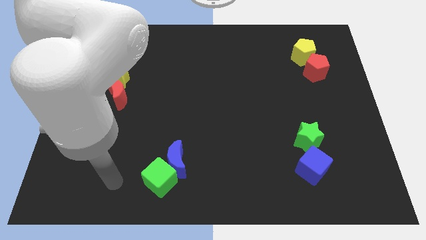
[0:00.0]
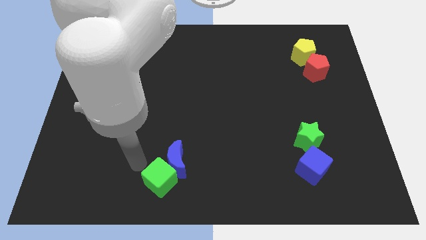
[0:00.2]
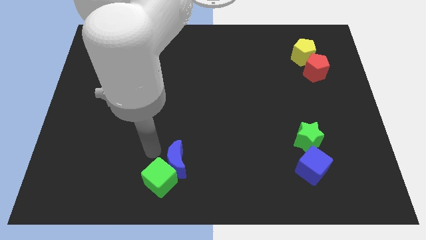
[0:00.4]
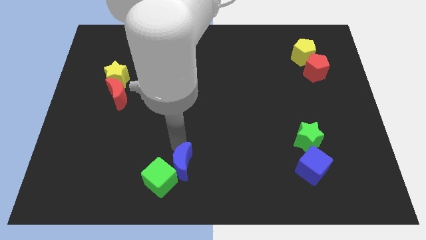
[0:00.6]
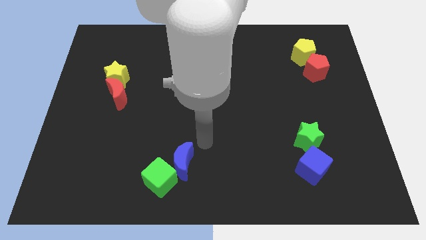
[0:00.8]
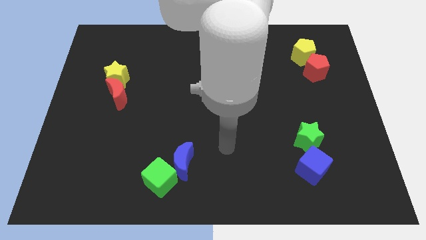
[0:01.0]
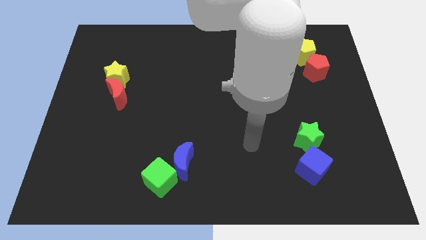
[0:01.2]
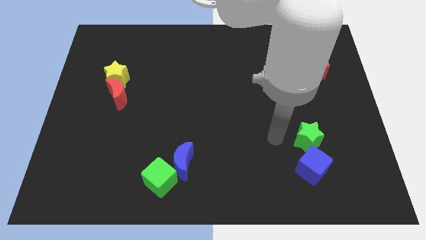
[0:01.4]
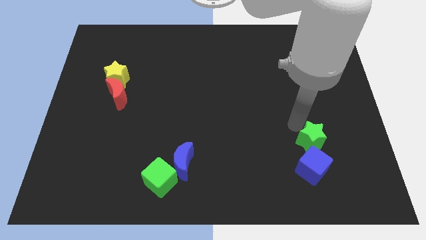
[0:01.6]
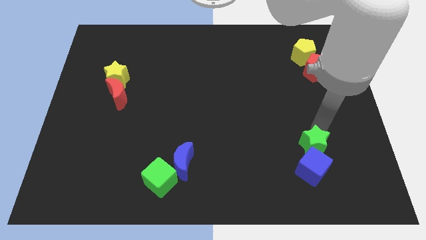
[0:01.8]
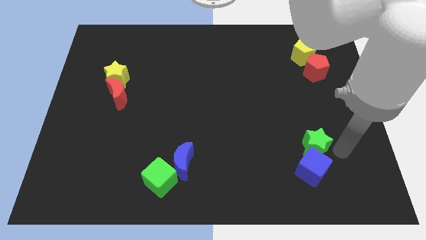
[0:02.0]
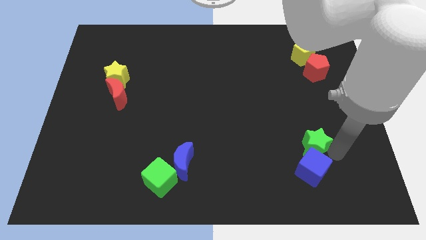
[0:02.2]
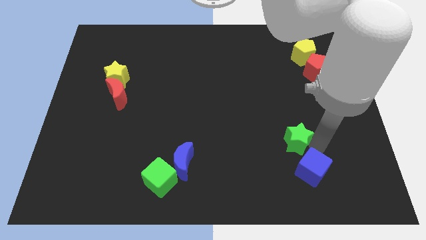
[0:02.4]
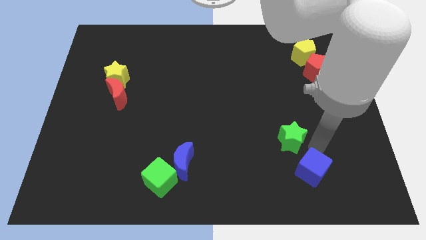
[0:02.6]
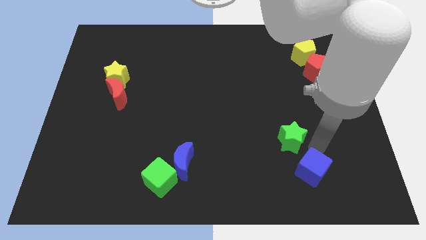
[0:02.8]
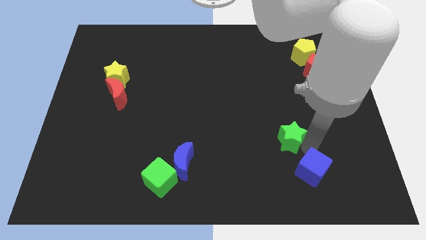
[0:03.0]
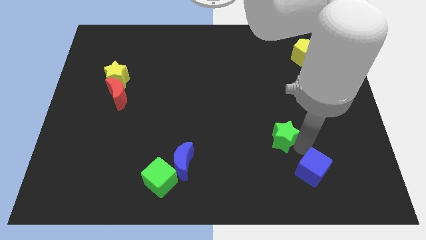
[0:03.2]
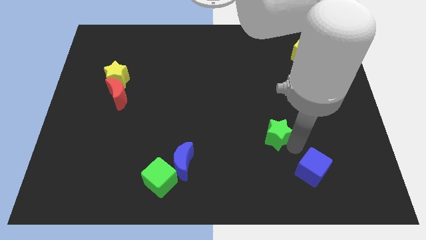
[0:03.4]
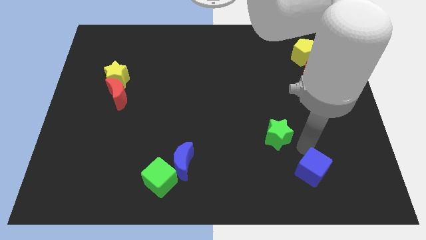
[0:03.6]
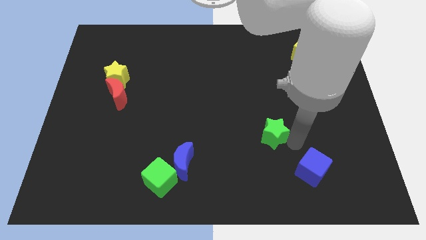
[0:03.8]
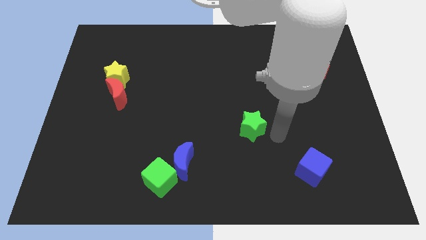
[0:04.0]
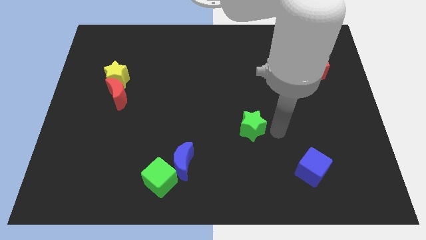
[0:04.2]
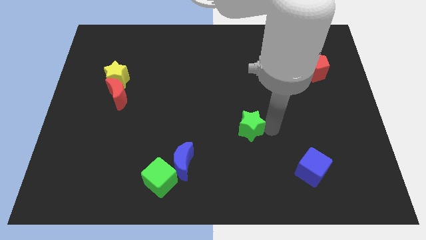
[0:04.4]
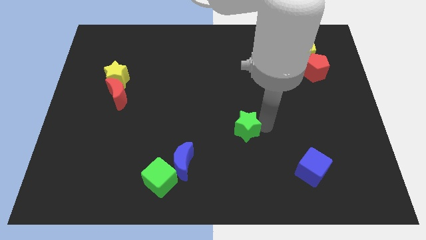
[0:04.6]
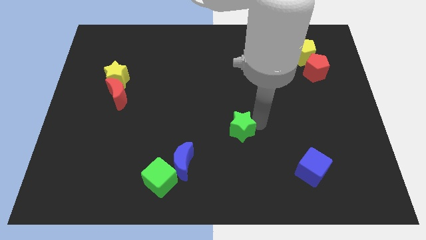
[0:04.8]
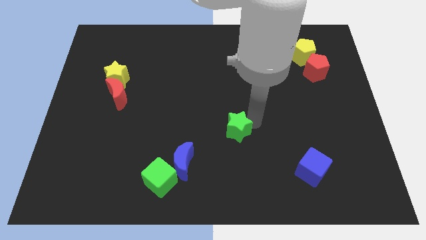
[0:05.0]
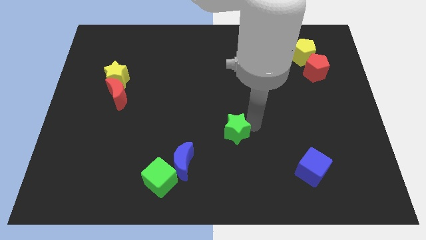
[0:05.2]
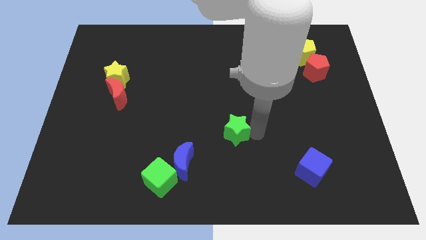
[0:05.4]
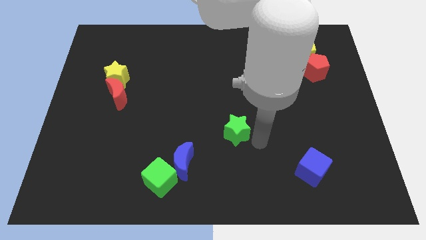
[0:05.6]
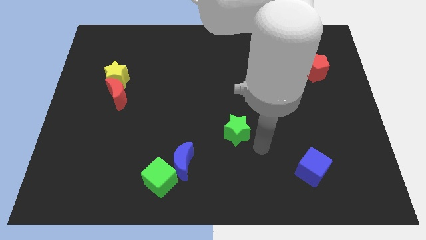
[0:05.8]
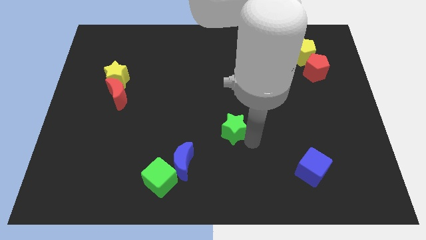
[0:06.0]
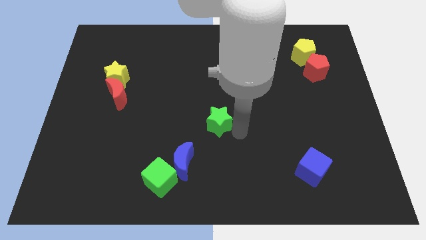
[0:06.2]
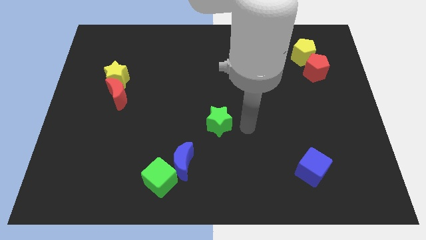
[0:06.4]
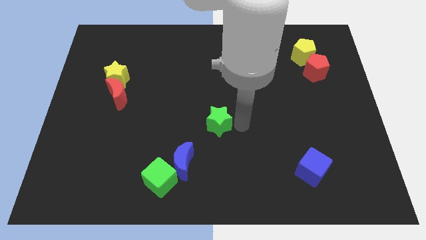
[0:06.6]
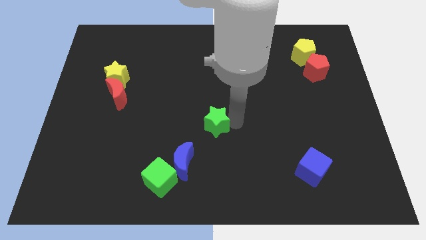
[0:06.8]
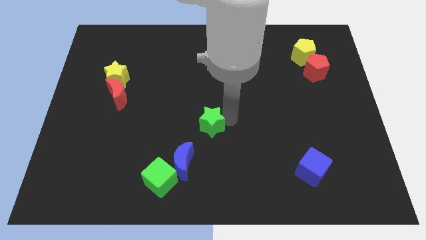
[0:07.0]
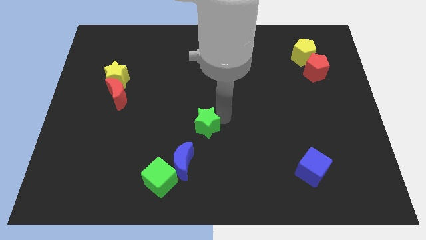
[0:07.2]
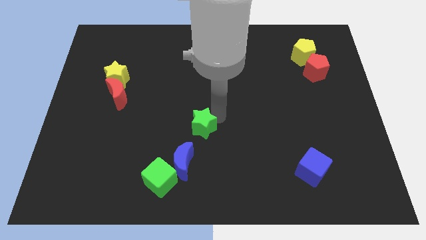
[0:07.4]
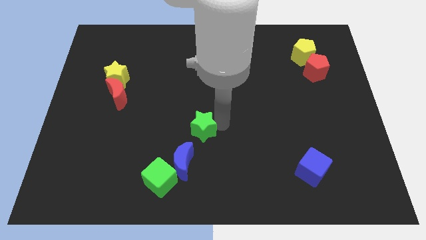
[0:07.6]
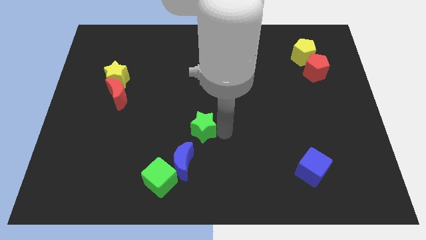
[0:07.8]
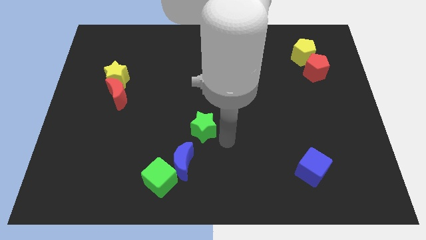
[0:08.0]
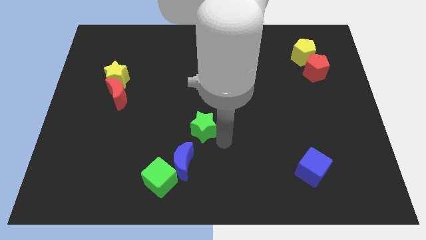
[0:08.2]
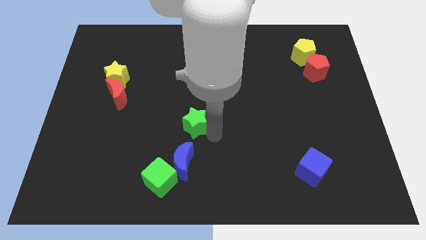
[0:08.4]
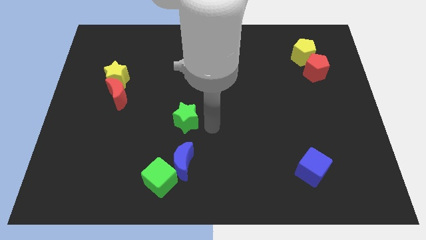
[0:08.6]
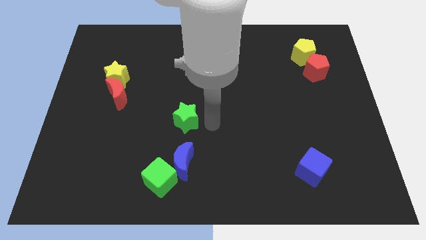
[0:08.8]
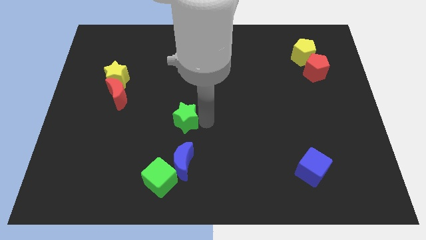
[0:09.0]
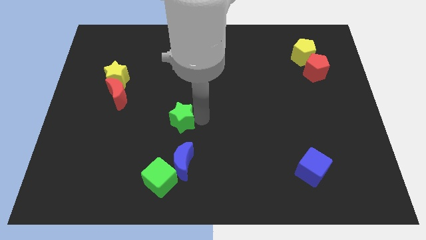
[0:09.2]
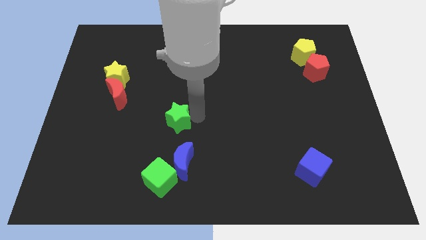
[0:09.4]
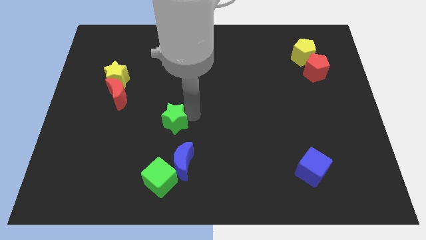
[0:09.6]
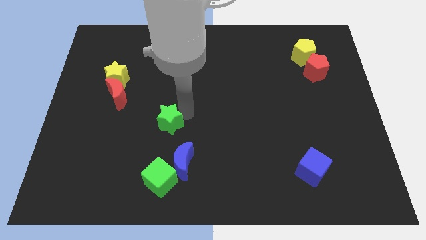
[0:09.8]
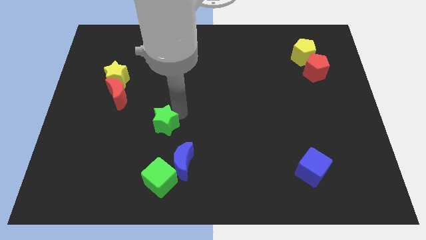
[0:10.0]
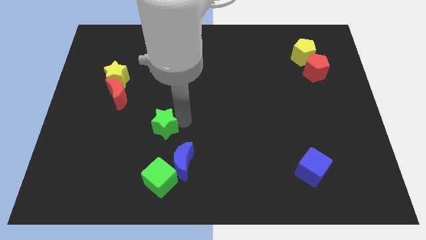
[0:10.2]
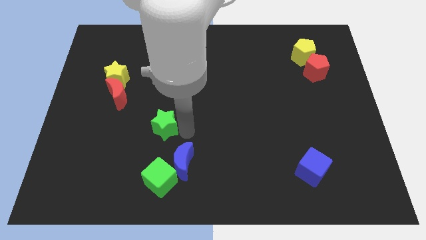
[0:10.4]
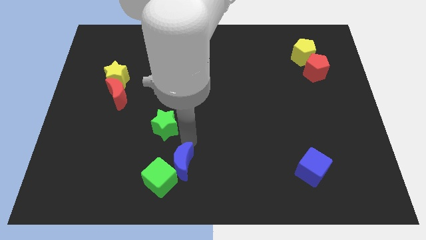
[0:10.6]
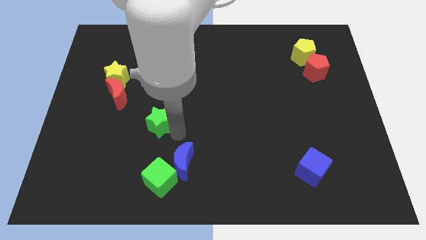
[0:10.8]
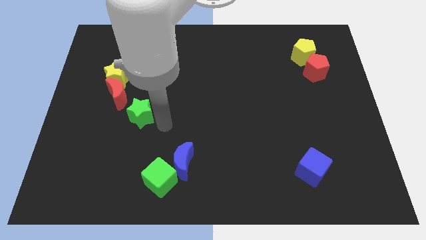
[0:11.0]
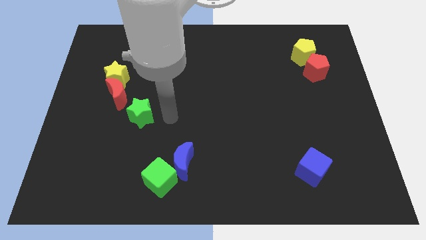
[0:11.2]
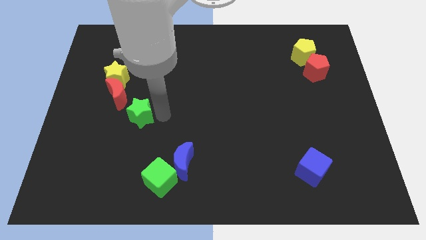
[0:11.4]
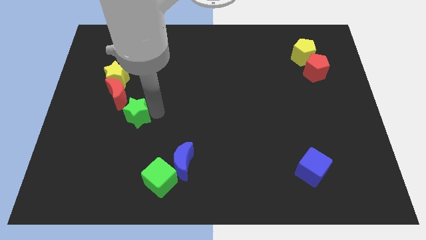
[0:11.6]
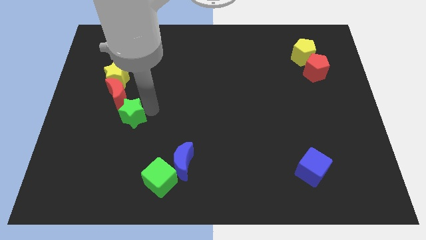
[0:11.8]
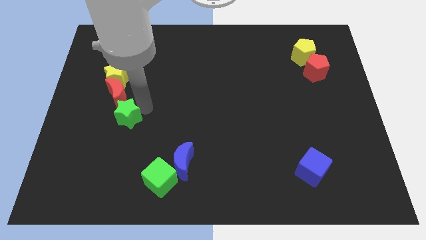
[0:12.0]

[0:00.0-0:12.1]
push the green star to the bottom side of the yellow star
